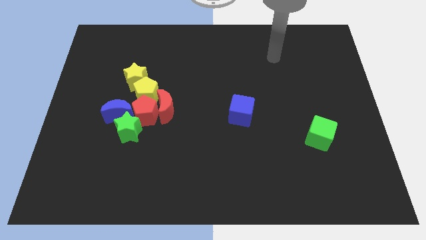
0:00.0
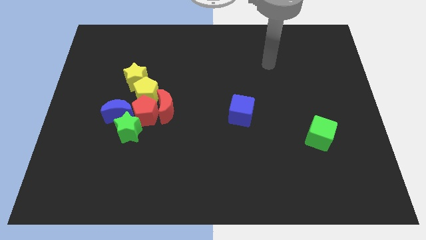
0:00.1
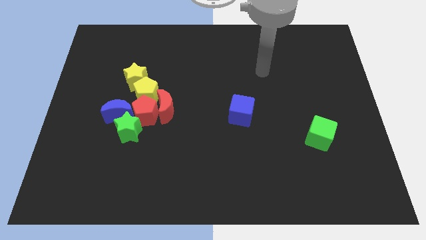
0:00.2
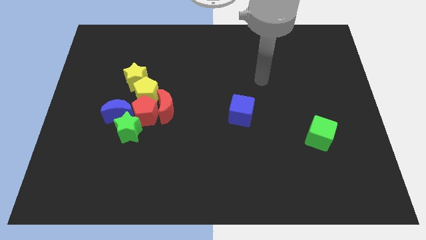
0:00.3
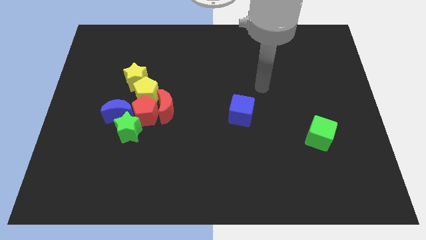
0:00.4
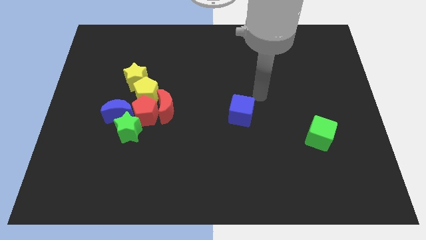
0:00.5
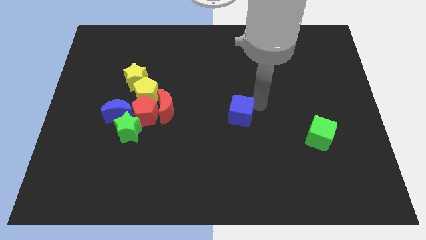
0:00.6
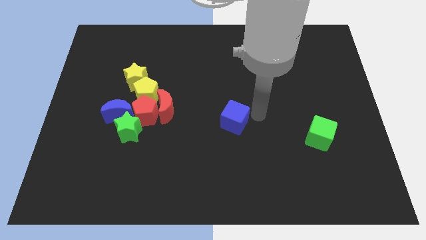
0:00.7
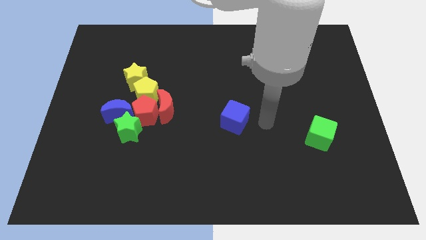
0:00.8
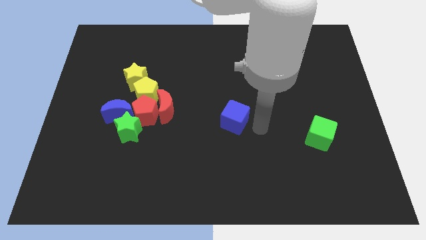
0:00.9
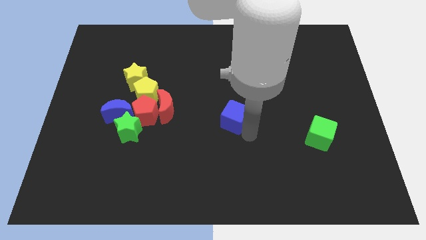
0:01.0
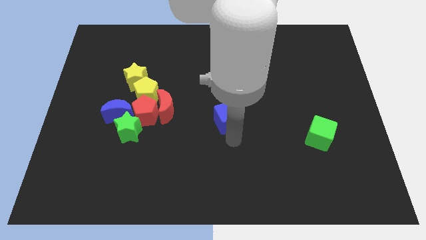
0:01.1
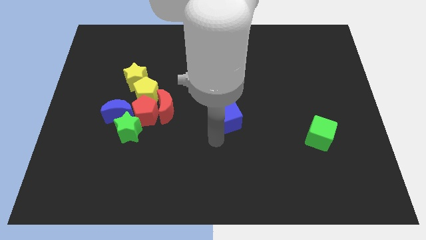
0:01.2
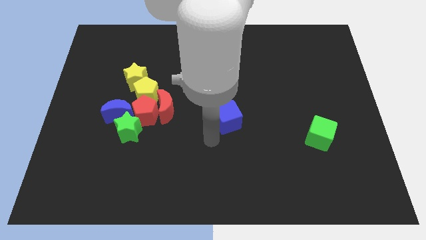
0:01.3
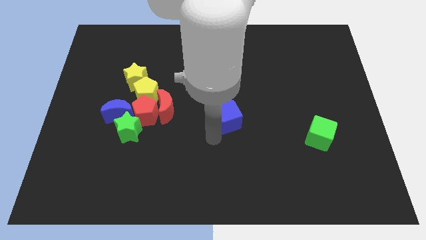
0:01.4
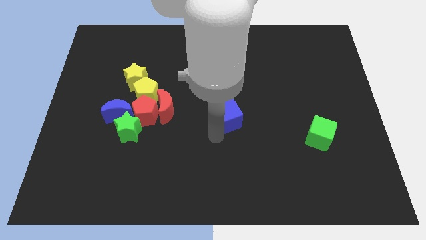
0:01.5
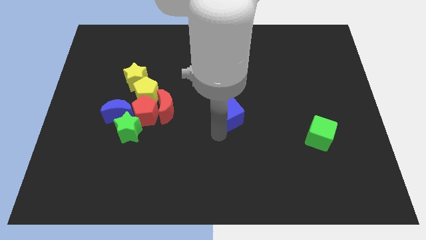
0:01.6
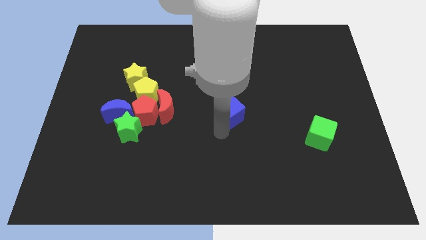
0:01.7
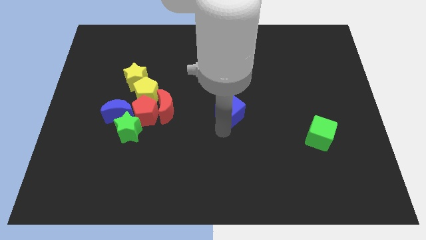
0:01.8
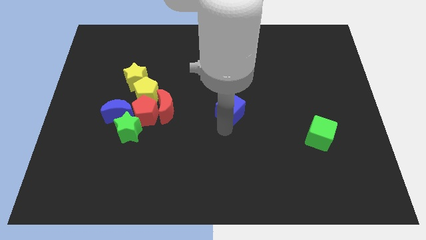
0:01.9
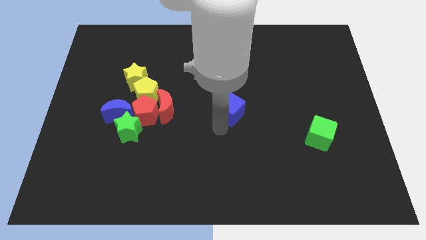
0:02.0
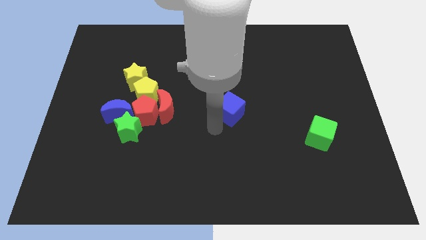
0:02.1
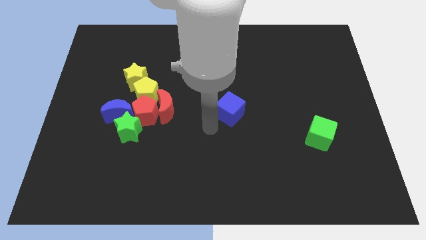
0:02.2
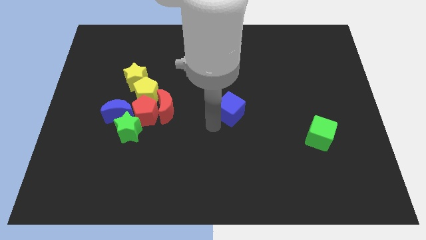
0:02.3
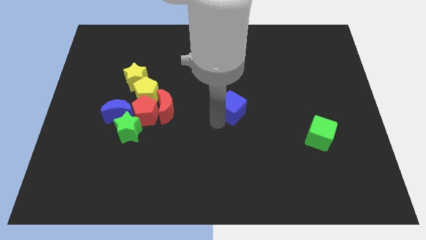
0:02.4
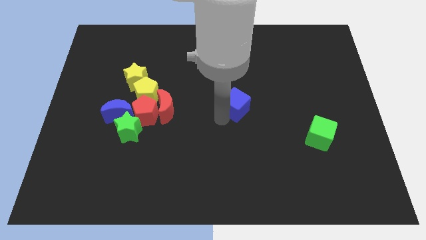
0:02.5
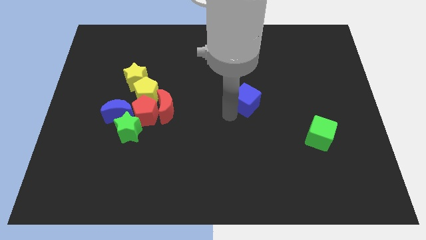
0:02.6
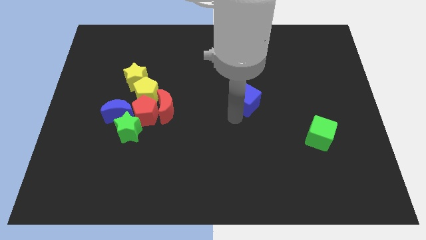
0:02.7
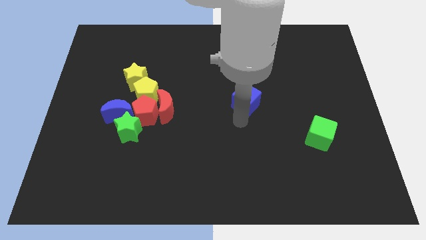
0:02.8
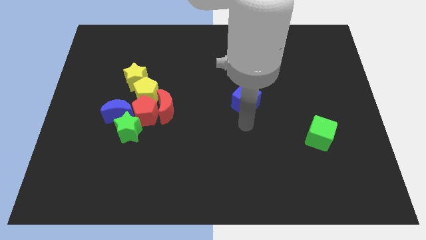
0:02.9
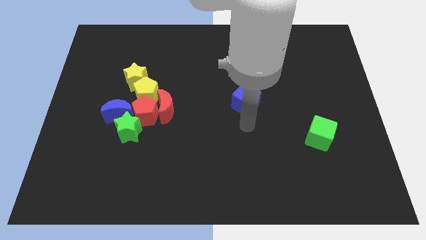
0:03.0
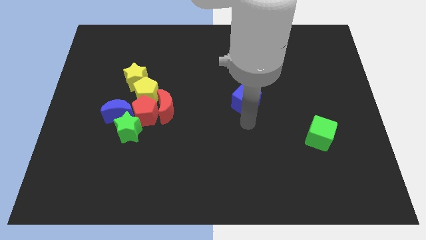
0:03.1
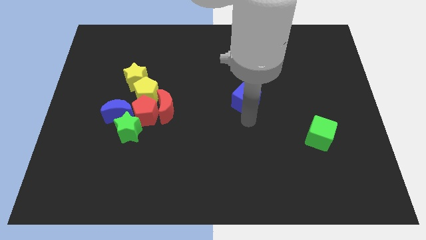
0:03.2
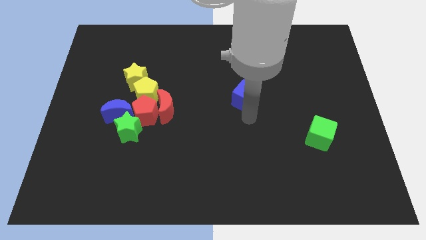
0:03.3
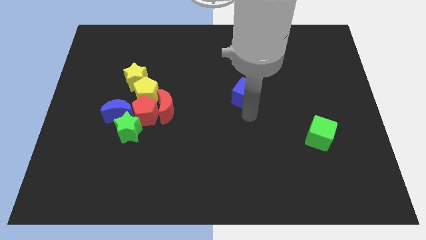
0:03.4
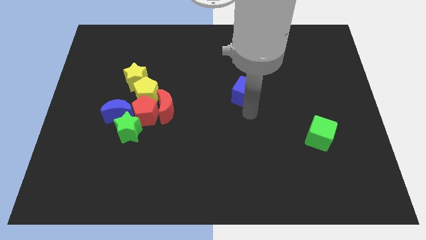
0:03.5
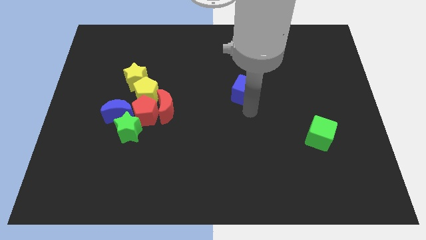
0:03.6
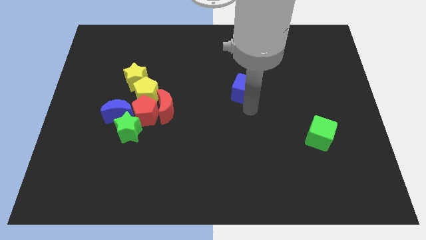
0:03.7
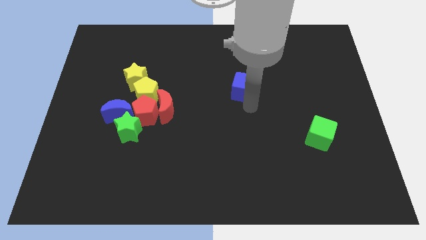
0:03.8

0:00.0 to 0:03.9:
push the blue cube upwards somewhat

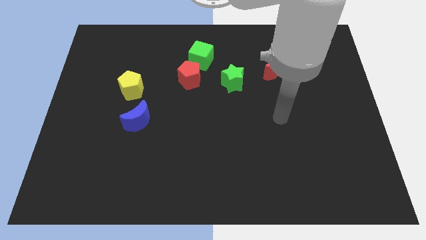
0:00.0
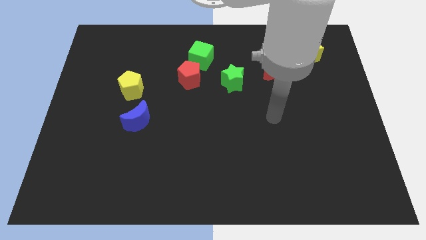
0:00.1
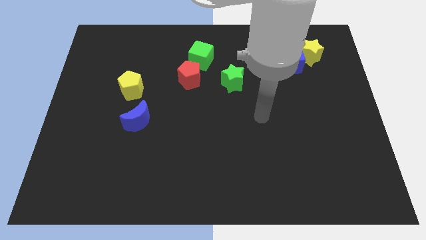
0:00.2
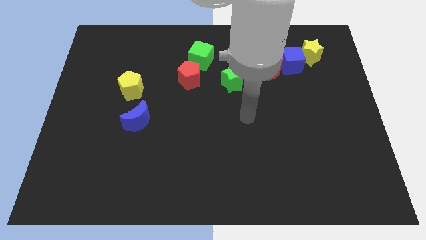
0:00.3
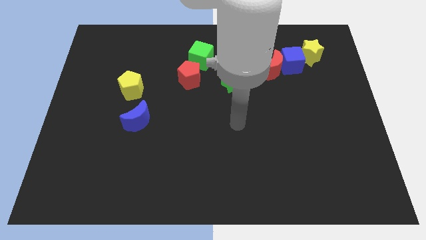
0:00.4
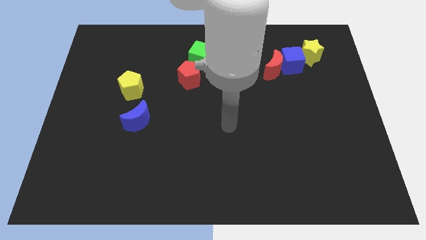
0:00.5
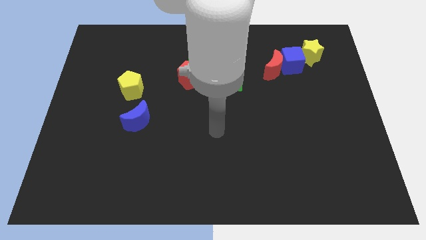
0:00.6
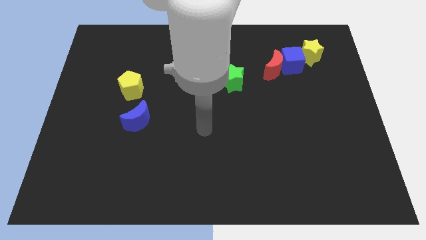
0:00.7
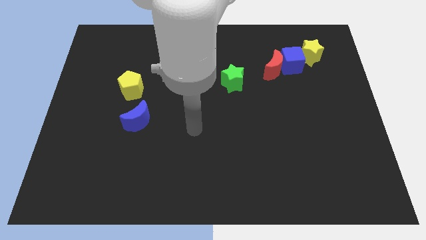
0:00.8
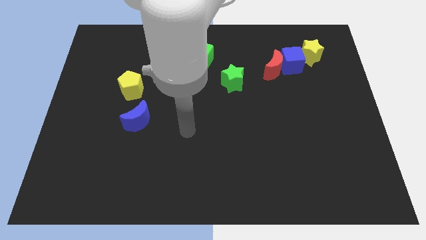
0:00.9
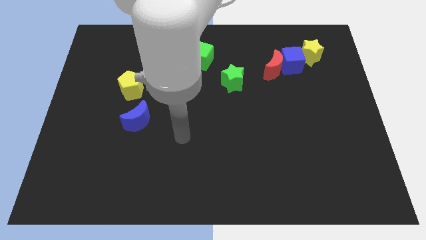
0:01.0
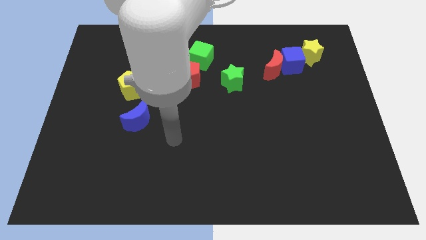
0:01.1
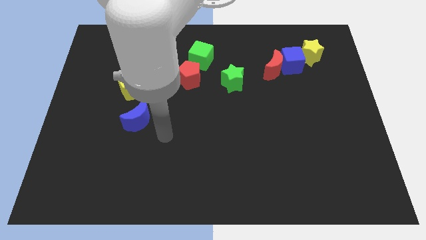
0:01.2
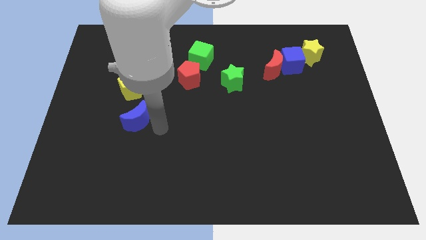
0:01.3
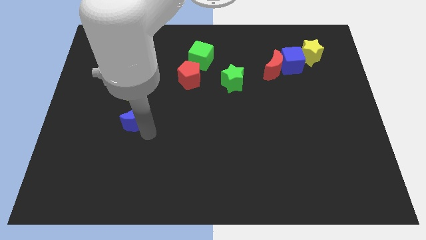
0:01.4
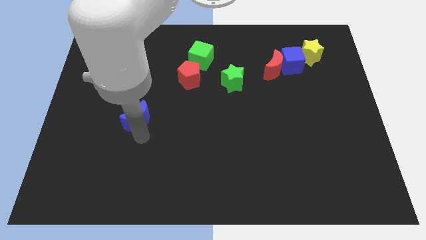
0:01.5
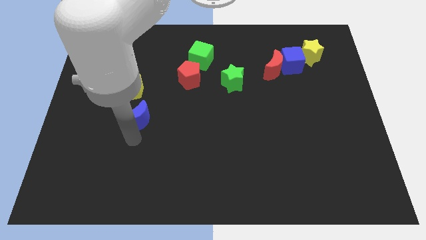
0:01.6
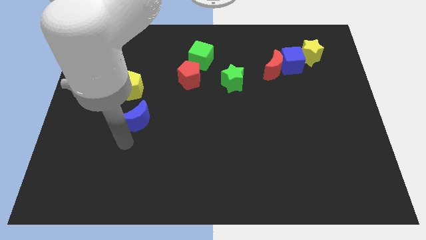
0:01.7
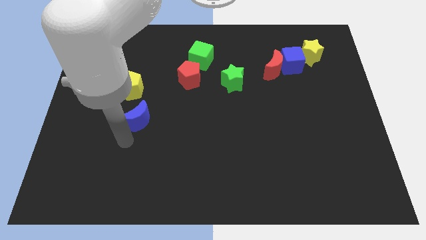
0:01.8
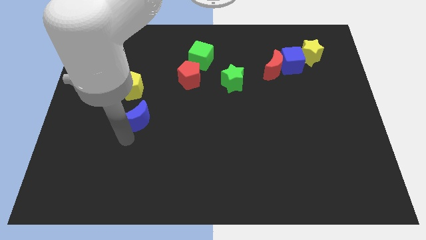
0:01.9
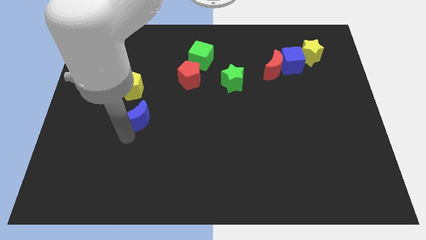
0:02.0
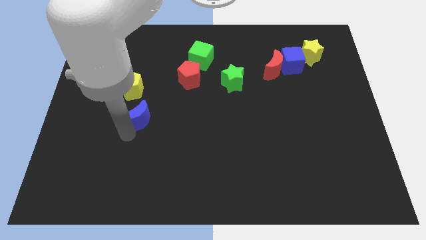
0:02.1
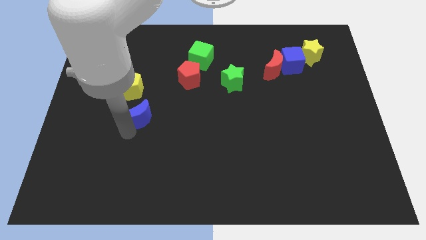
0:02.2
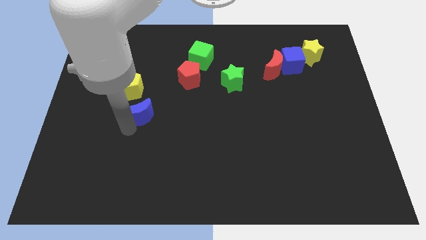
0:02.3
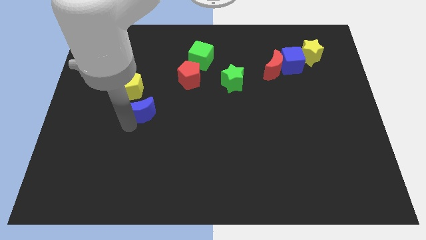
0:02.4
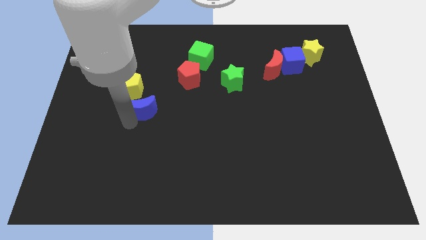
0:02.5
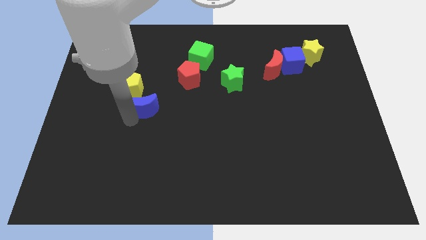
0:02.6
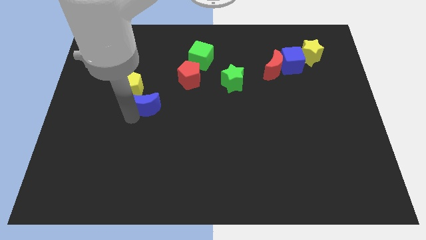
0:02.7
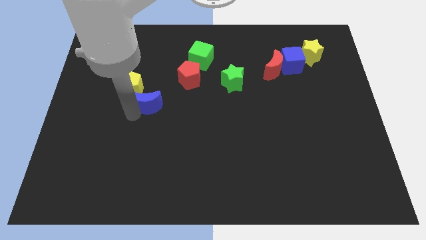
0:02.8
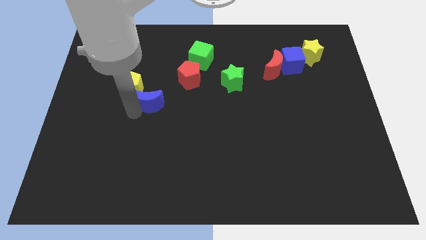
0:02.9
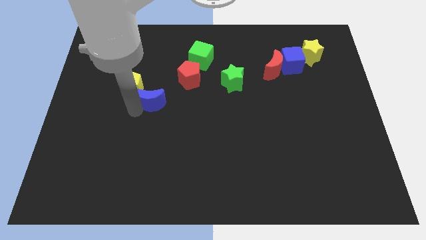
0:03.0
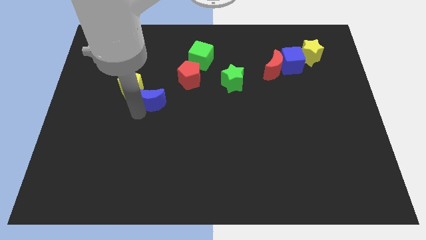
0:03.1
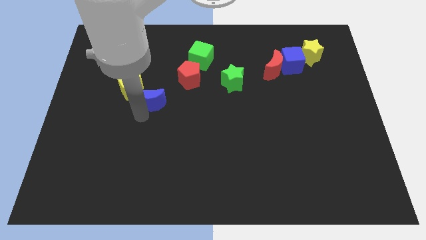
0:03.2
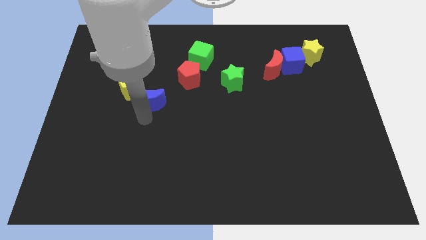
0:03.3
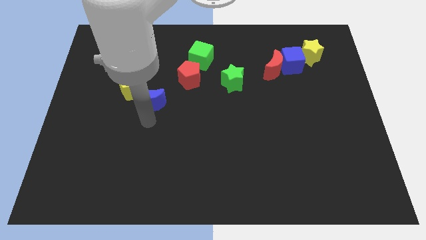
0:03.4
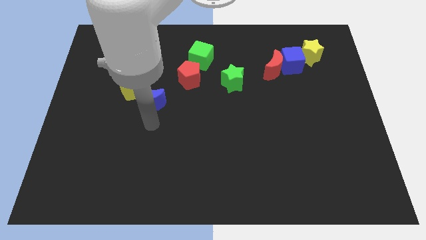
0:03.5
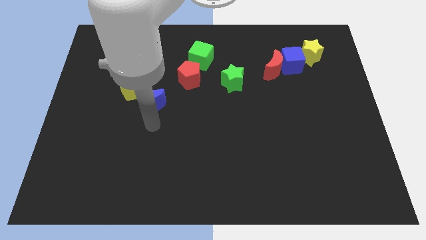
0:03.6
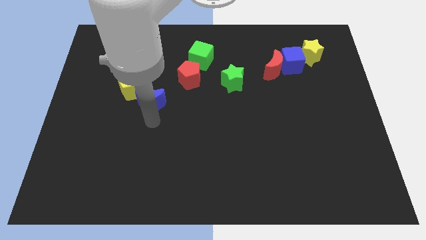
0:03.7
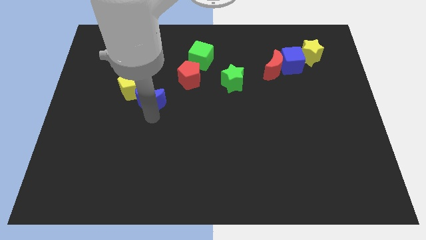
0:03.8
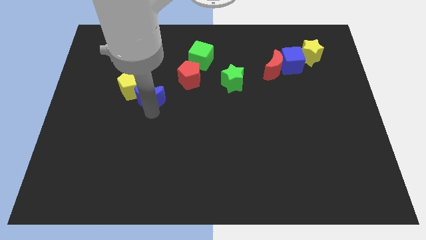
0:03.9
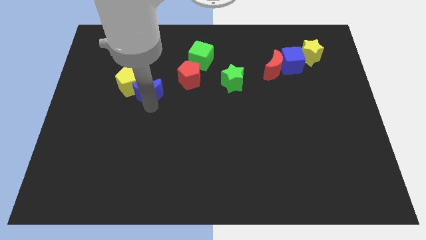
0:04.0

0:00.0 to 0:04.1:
push the blue moon up slightly
